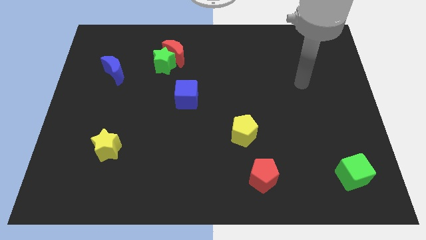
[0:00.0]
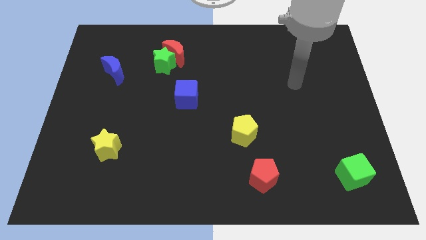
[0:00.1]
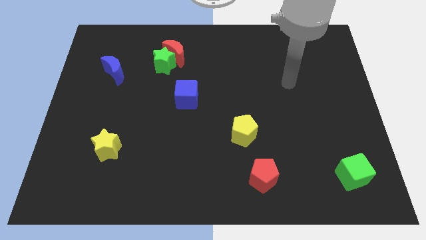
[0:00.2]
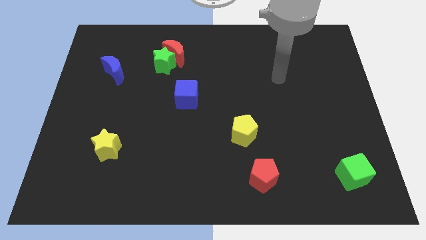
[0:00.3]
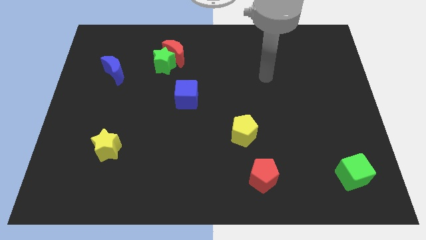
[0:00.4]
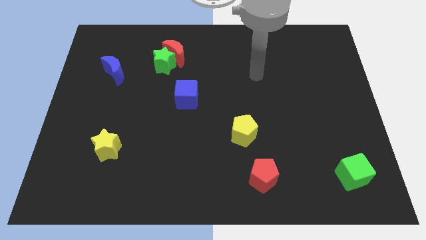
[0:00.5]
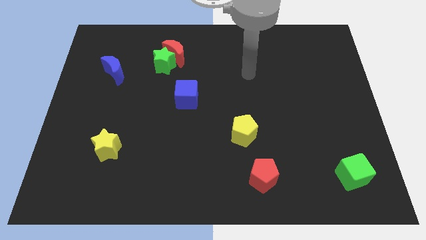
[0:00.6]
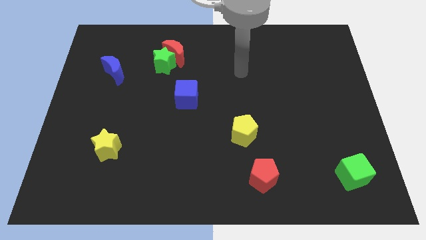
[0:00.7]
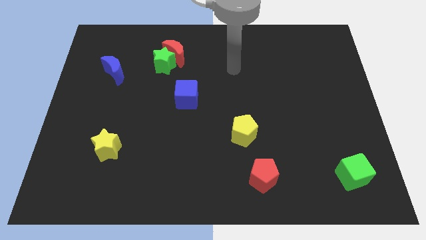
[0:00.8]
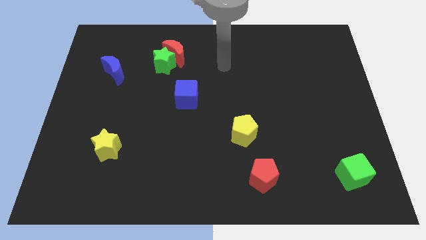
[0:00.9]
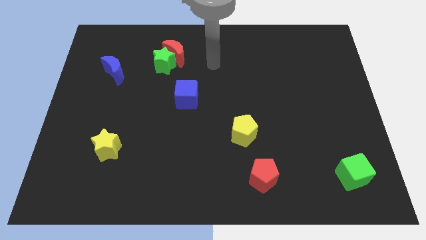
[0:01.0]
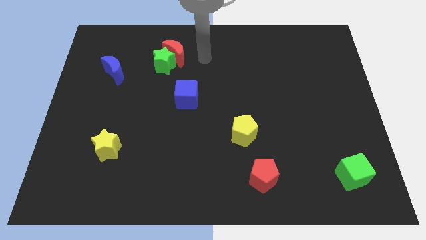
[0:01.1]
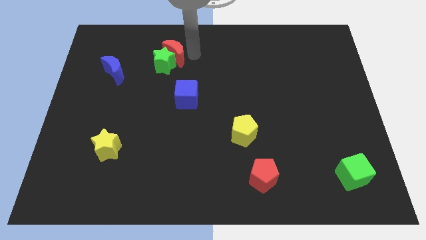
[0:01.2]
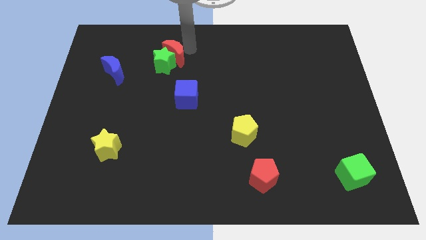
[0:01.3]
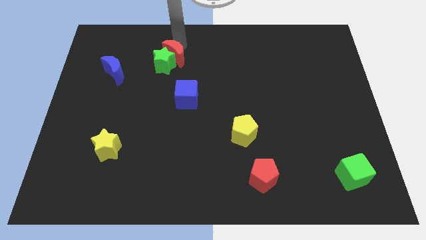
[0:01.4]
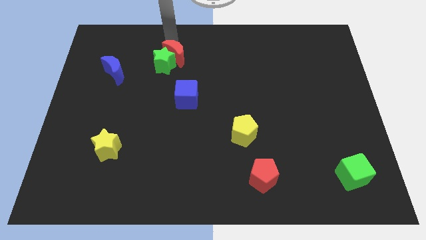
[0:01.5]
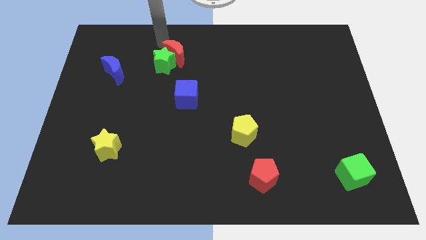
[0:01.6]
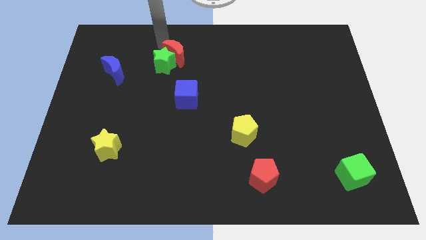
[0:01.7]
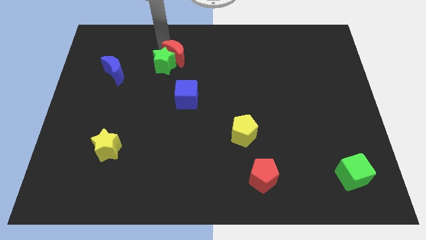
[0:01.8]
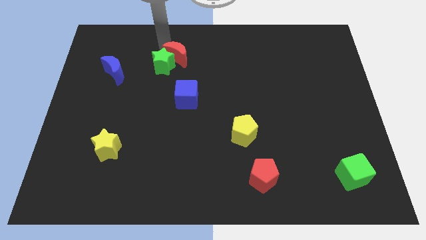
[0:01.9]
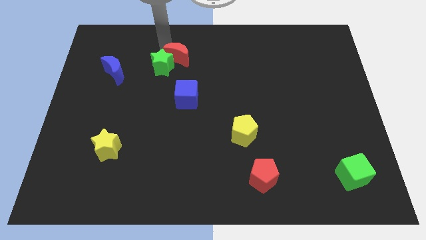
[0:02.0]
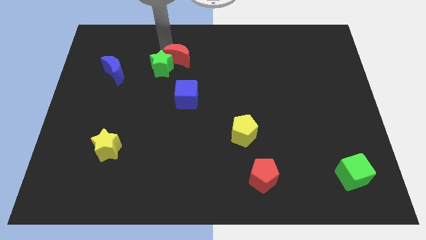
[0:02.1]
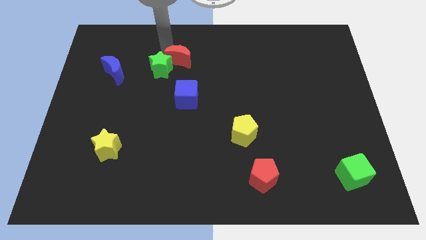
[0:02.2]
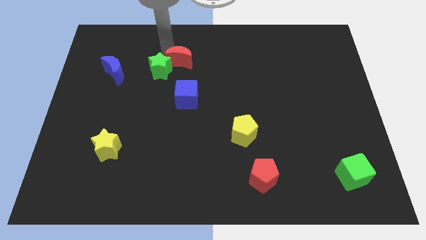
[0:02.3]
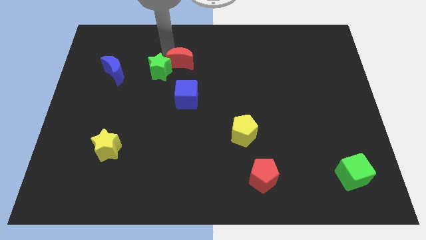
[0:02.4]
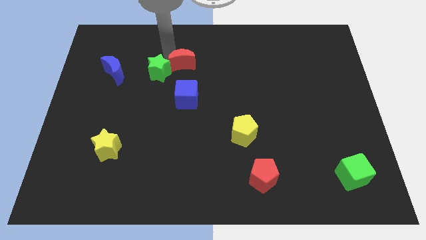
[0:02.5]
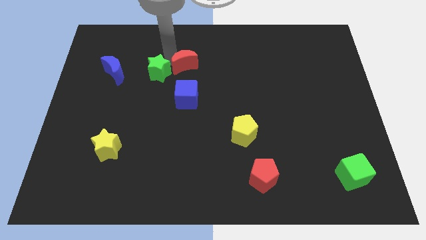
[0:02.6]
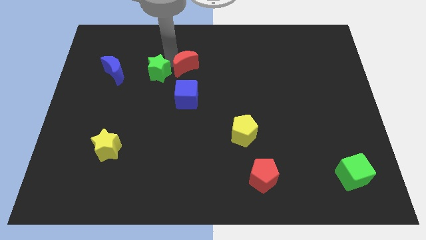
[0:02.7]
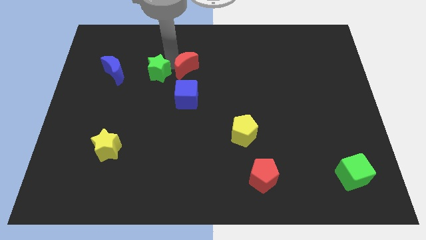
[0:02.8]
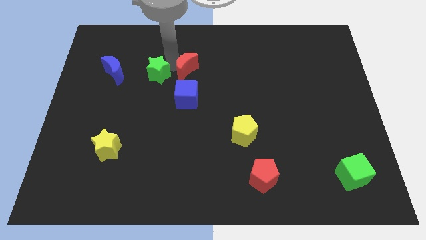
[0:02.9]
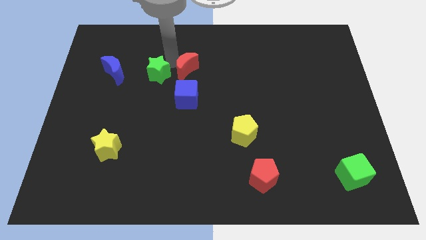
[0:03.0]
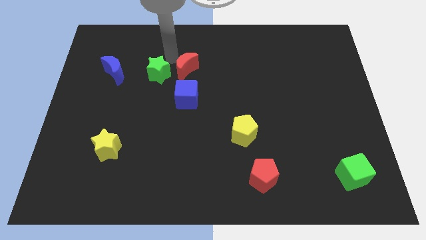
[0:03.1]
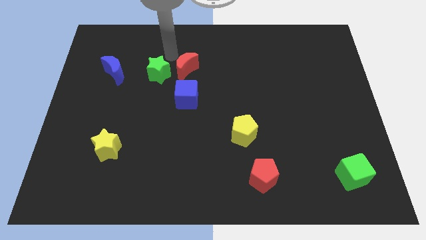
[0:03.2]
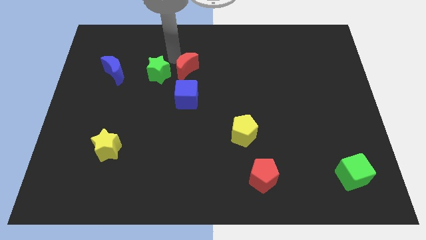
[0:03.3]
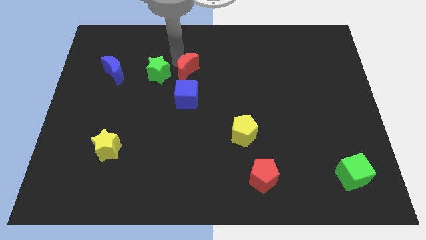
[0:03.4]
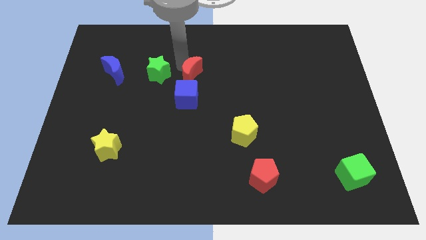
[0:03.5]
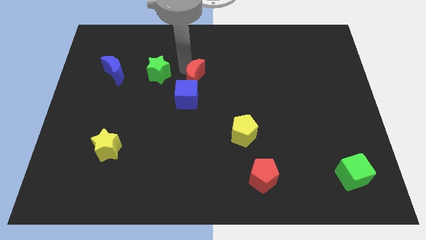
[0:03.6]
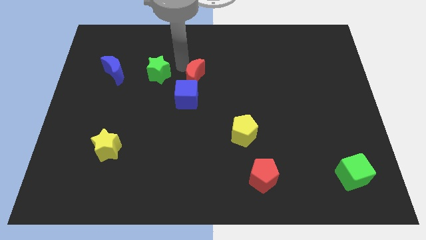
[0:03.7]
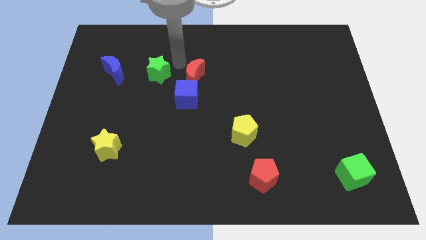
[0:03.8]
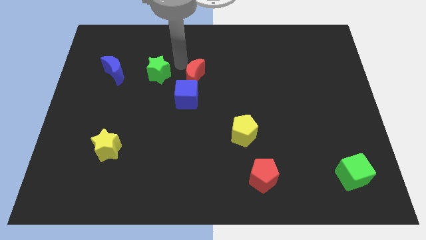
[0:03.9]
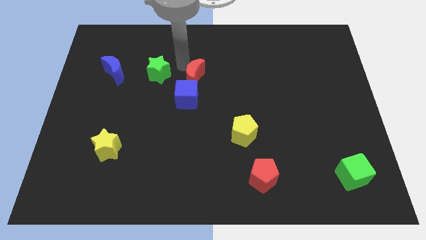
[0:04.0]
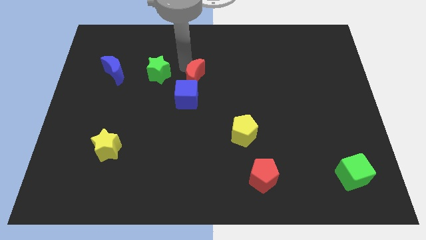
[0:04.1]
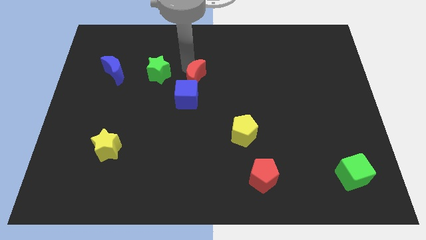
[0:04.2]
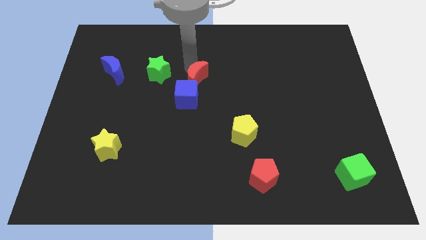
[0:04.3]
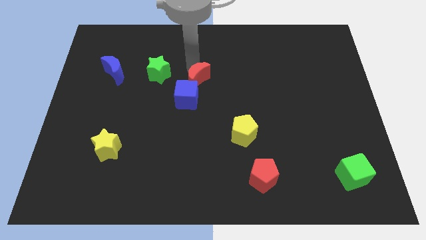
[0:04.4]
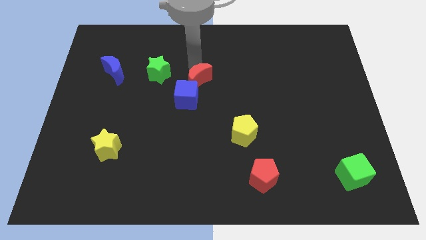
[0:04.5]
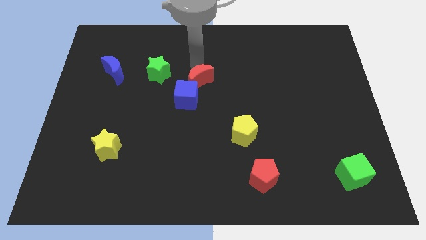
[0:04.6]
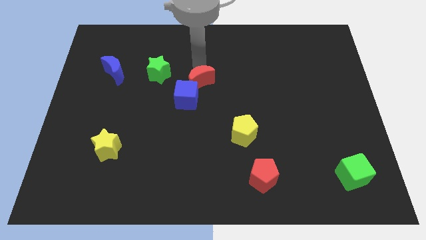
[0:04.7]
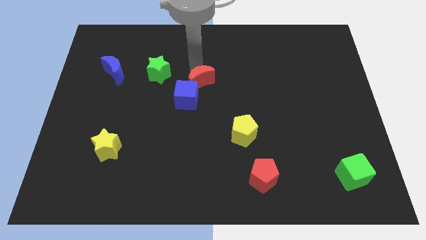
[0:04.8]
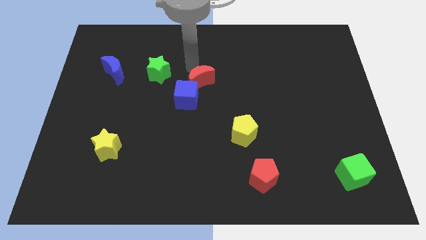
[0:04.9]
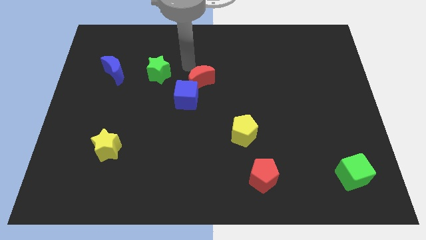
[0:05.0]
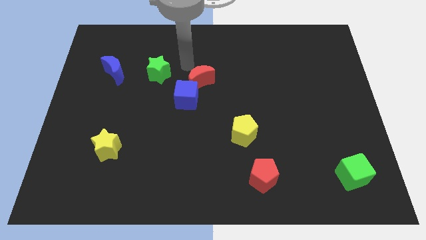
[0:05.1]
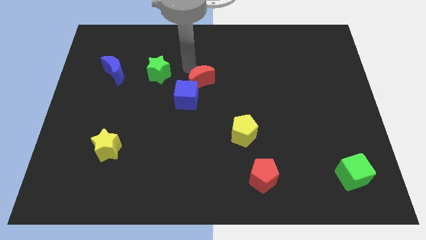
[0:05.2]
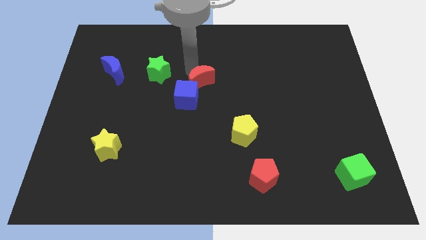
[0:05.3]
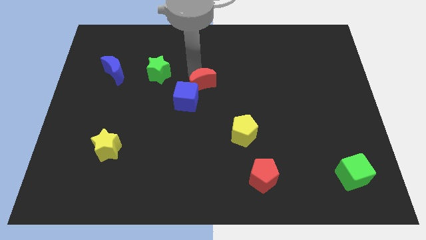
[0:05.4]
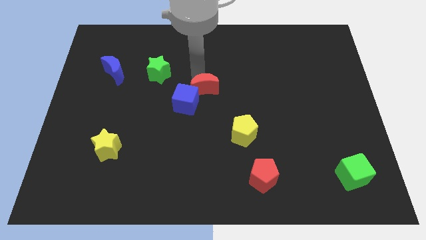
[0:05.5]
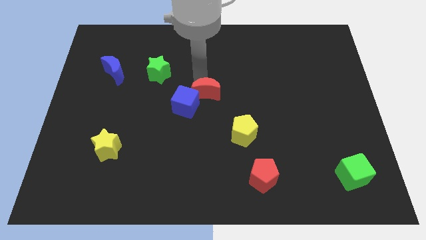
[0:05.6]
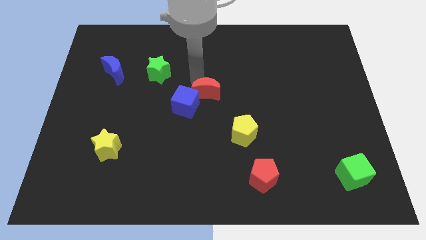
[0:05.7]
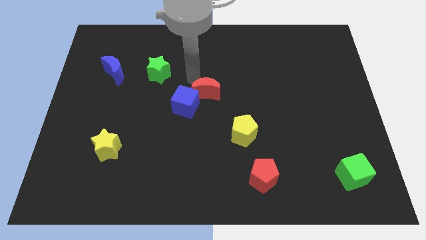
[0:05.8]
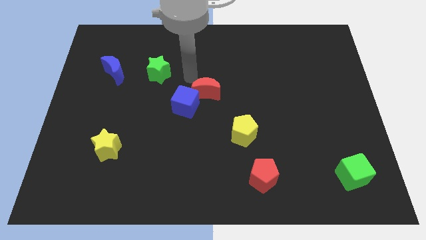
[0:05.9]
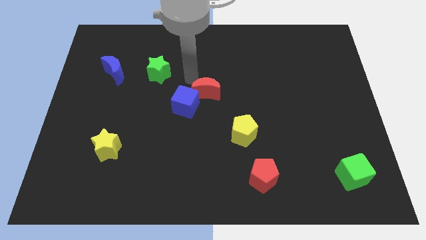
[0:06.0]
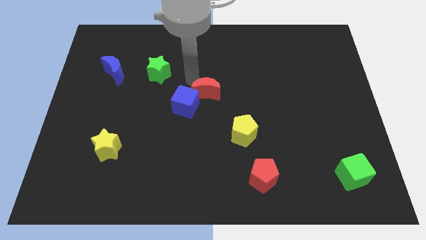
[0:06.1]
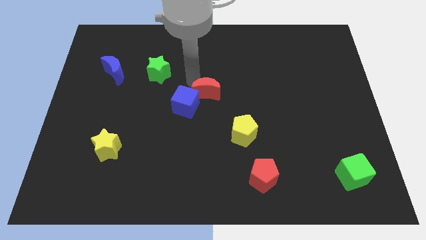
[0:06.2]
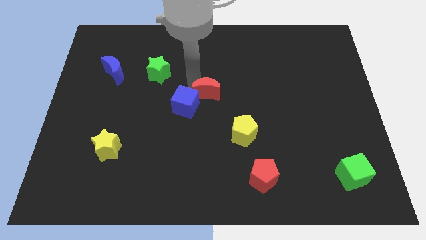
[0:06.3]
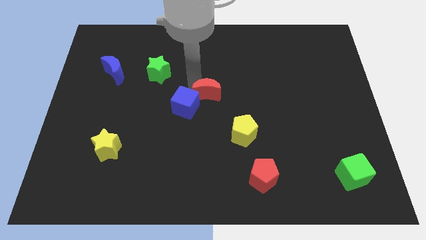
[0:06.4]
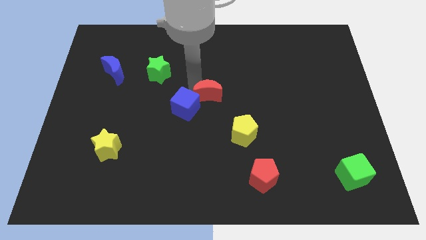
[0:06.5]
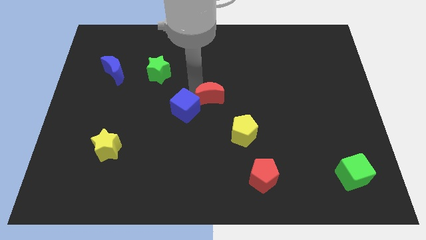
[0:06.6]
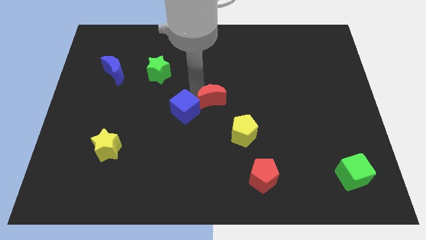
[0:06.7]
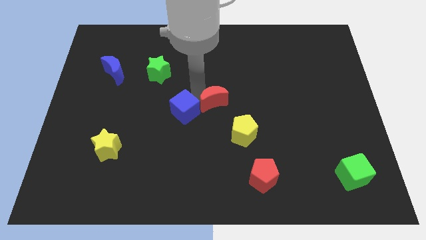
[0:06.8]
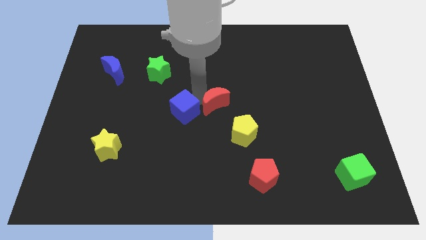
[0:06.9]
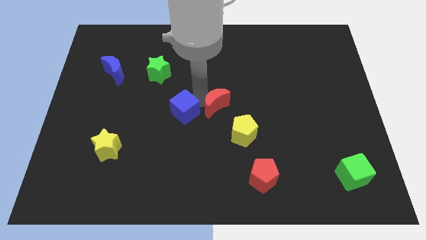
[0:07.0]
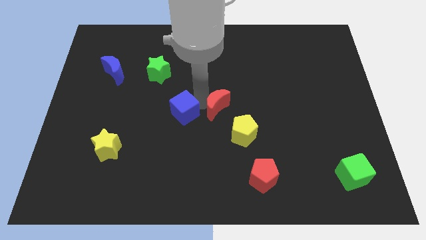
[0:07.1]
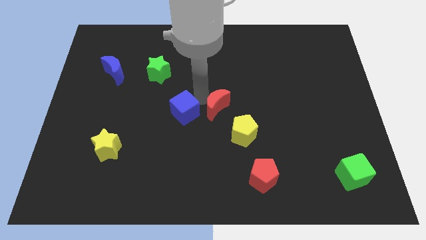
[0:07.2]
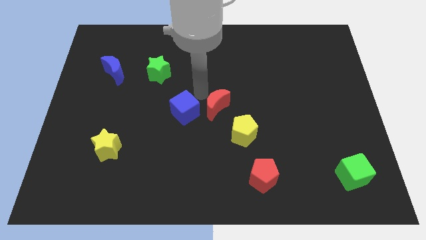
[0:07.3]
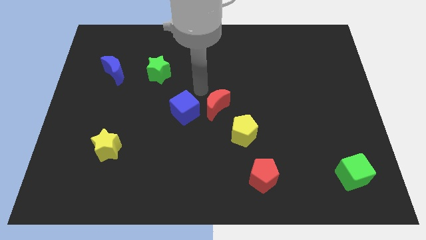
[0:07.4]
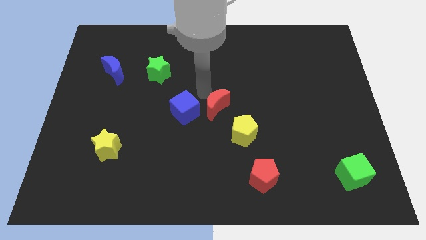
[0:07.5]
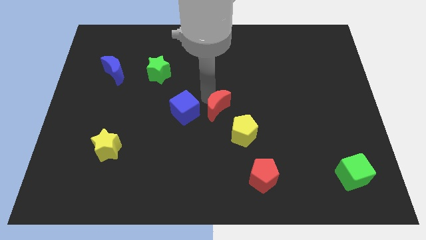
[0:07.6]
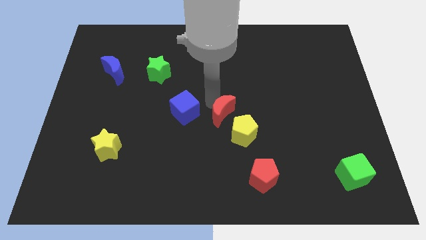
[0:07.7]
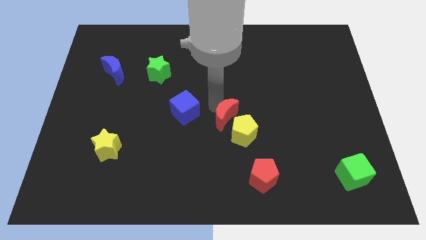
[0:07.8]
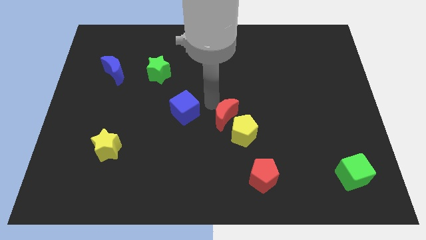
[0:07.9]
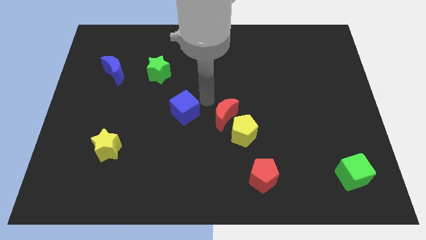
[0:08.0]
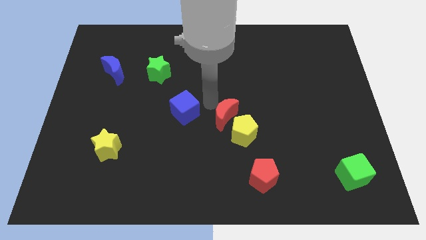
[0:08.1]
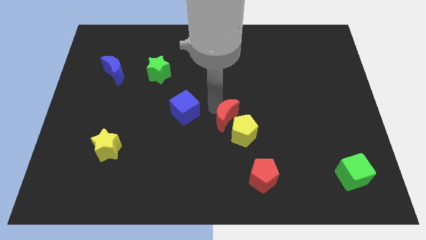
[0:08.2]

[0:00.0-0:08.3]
move the red moon to the yellow pentagon
